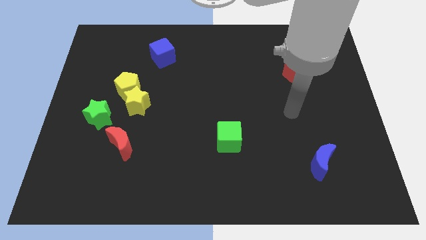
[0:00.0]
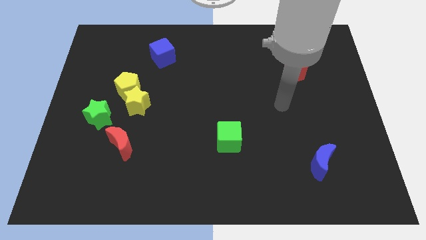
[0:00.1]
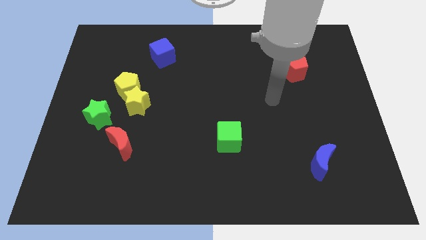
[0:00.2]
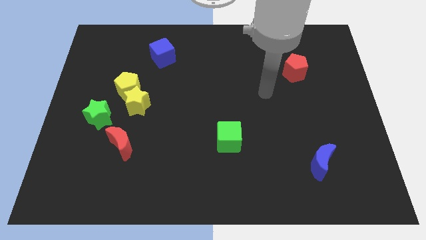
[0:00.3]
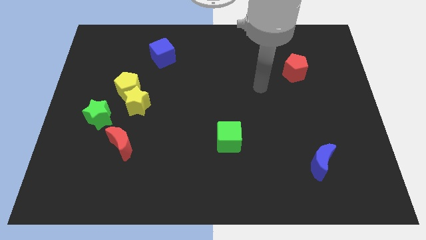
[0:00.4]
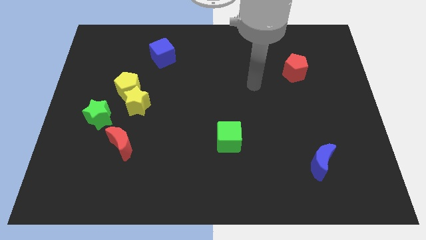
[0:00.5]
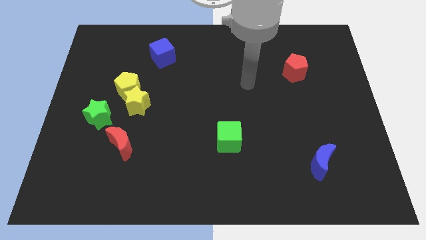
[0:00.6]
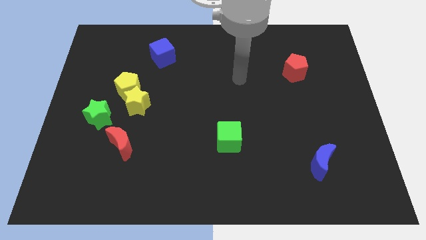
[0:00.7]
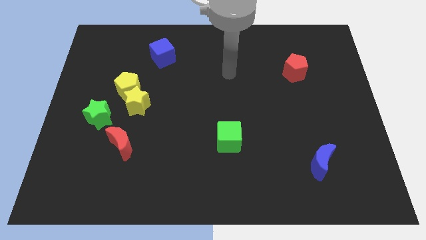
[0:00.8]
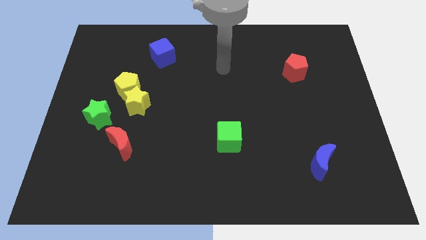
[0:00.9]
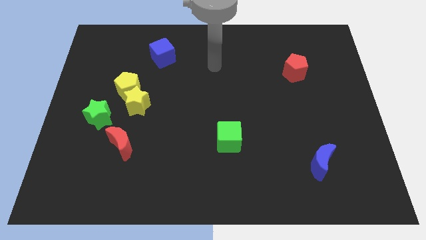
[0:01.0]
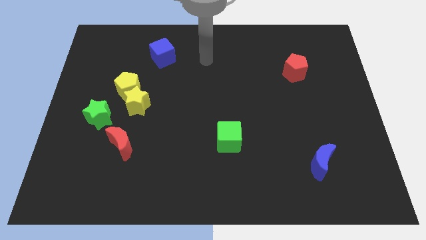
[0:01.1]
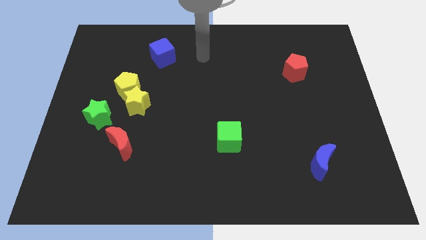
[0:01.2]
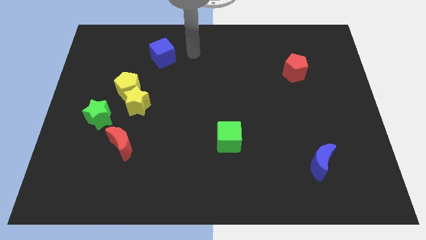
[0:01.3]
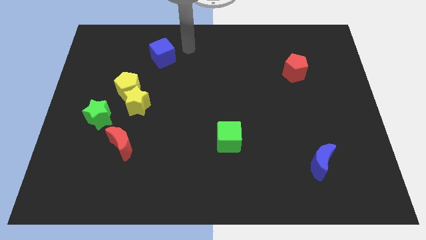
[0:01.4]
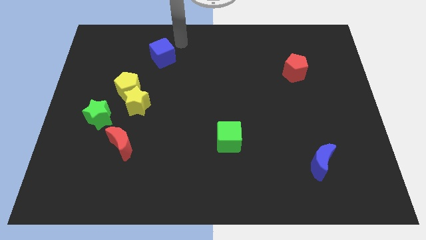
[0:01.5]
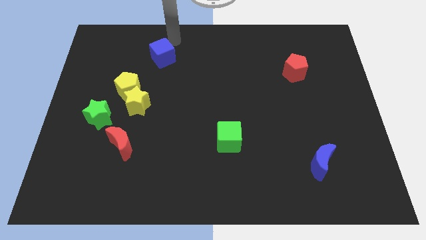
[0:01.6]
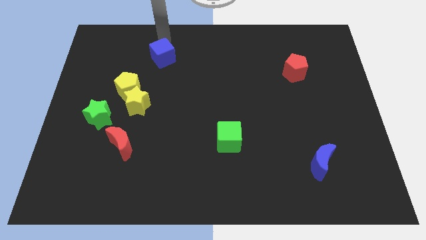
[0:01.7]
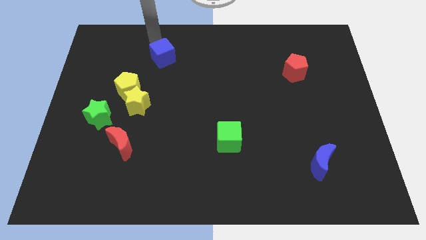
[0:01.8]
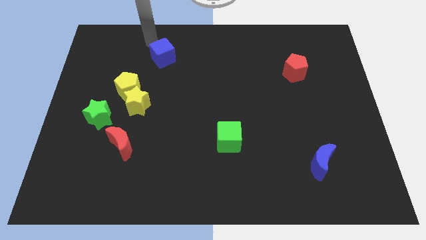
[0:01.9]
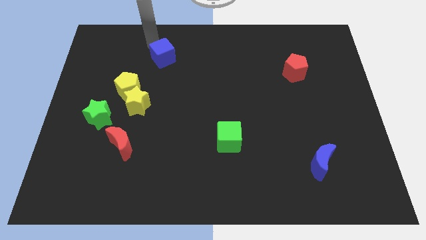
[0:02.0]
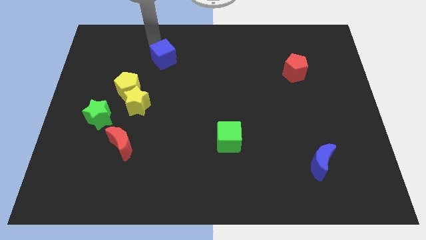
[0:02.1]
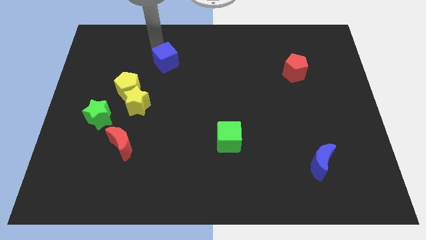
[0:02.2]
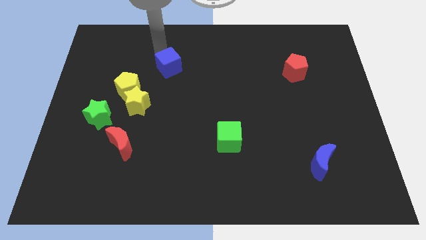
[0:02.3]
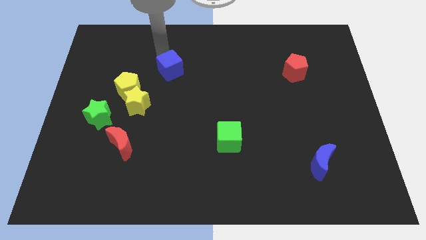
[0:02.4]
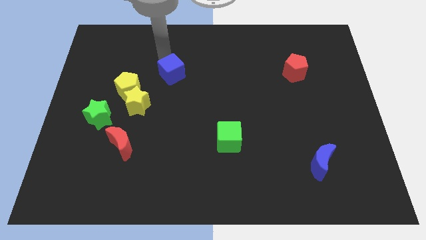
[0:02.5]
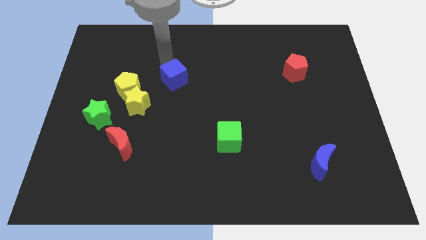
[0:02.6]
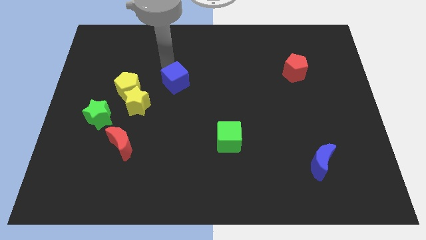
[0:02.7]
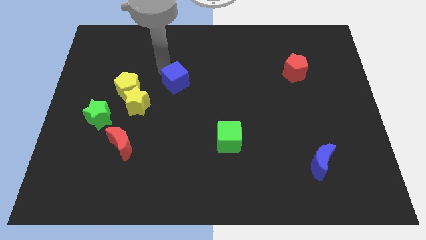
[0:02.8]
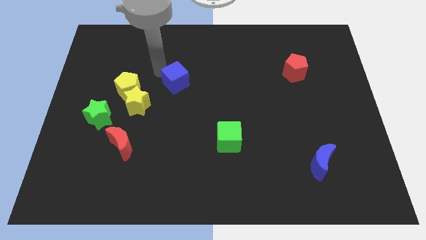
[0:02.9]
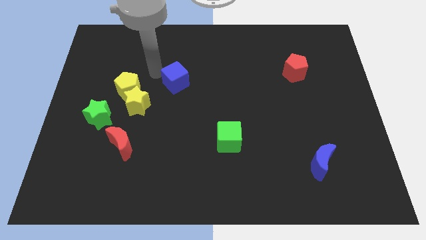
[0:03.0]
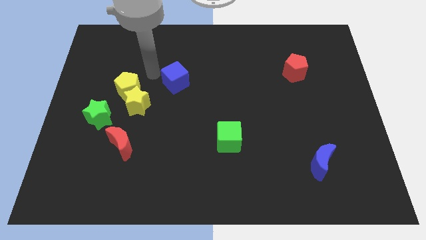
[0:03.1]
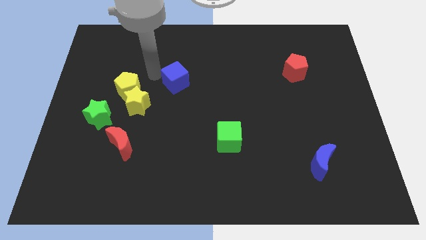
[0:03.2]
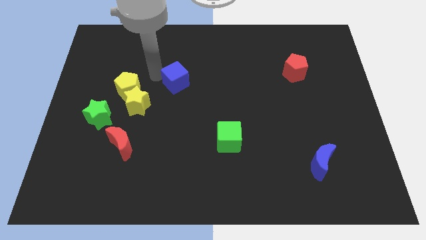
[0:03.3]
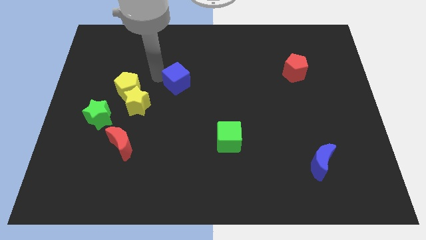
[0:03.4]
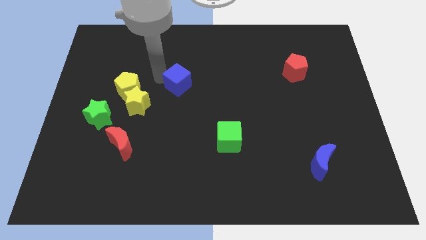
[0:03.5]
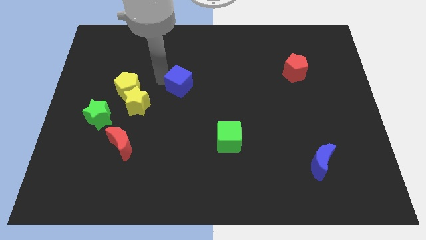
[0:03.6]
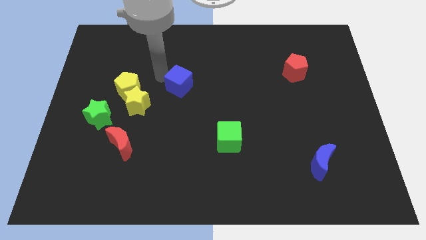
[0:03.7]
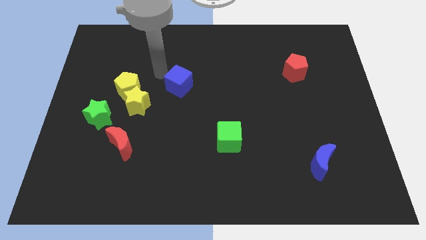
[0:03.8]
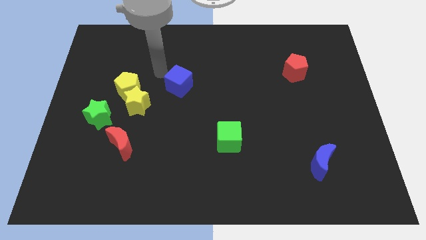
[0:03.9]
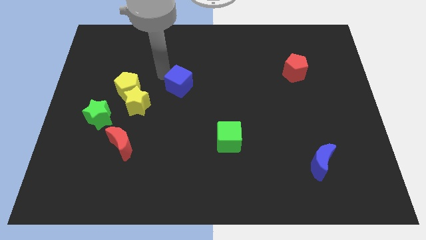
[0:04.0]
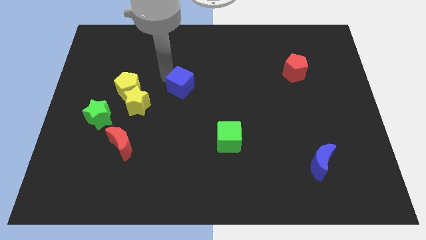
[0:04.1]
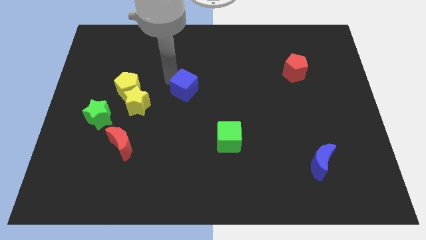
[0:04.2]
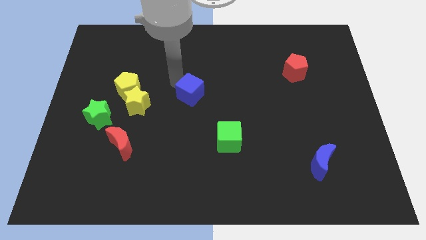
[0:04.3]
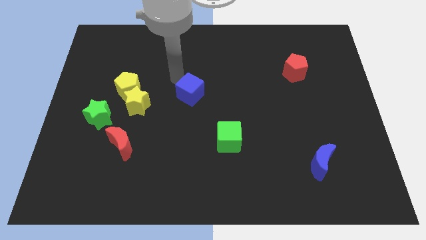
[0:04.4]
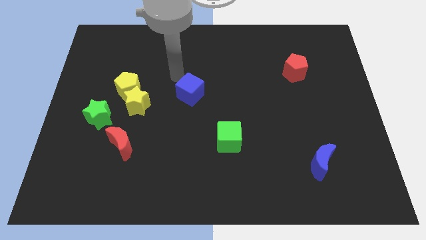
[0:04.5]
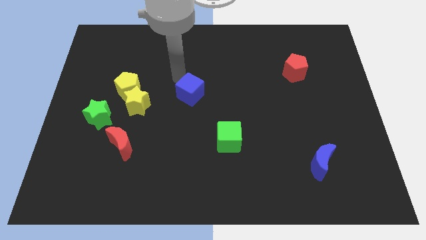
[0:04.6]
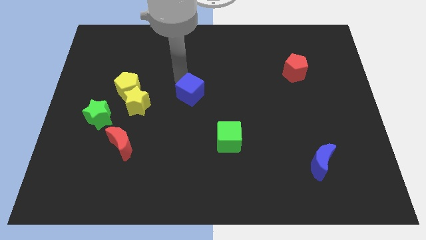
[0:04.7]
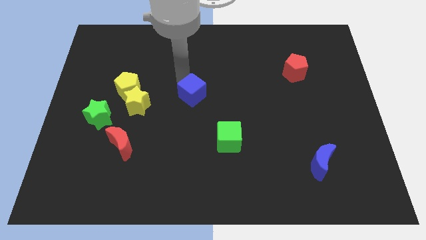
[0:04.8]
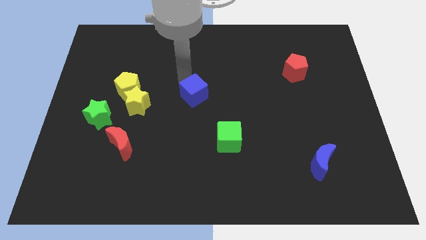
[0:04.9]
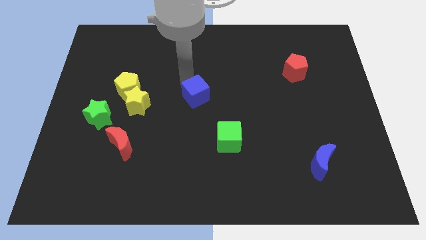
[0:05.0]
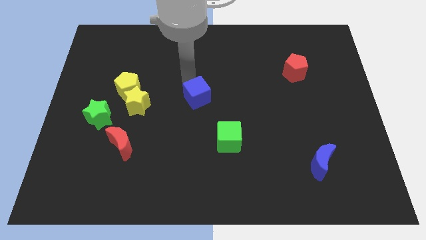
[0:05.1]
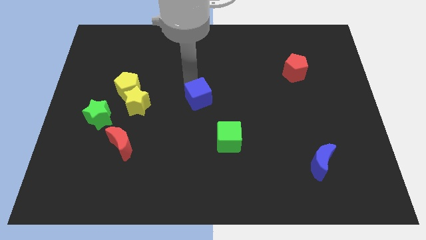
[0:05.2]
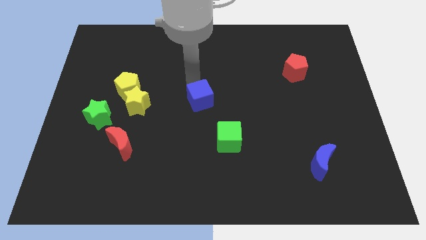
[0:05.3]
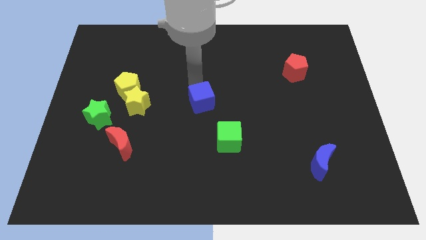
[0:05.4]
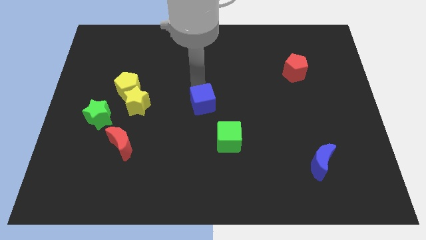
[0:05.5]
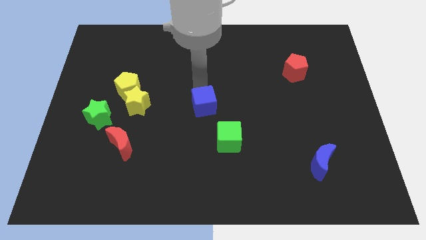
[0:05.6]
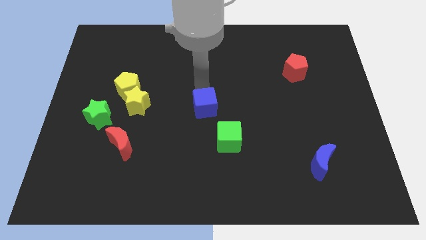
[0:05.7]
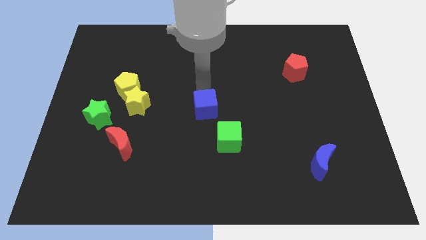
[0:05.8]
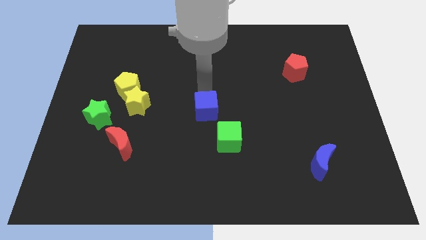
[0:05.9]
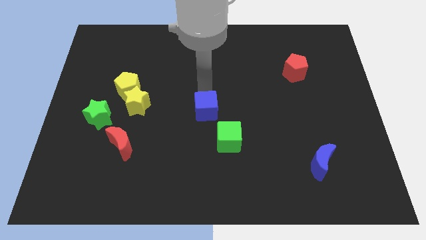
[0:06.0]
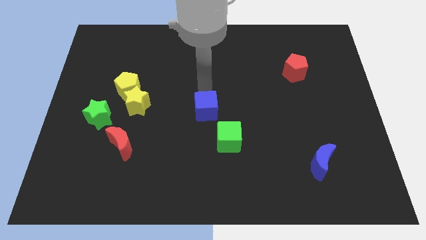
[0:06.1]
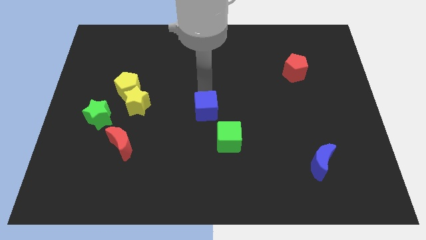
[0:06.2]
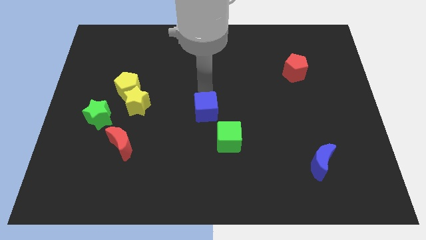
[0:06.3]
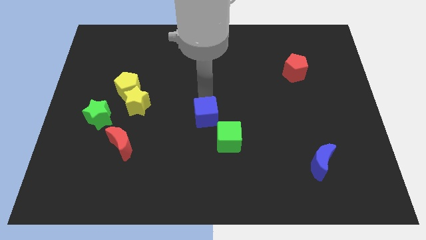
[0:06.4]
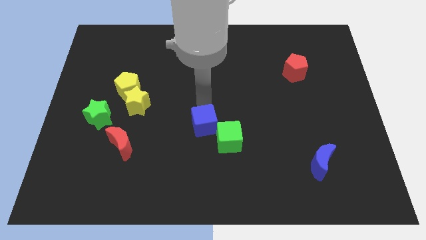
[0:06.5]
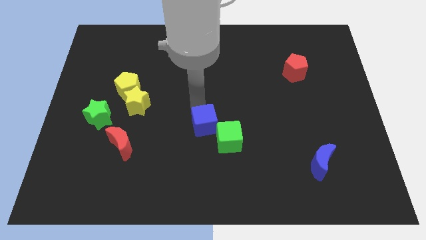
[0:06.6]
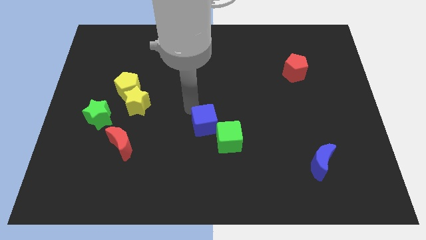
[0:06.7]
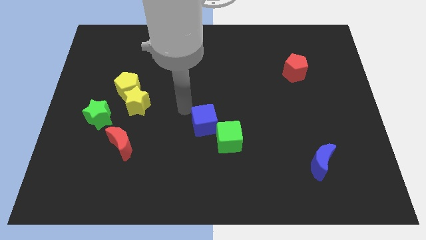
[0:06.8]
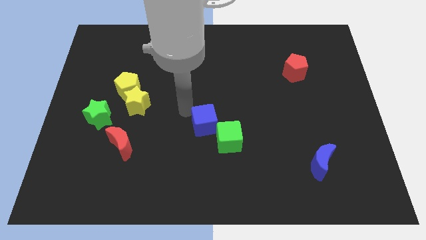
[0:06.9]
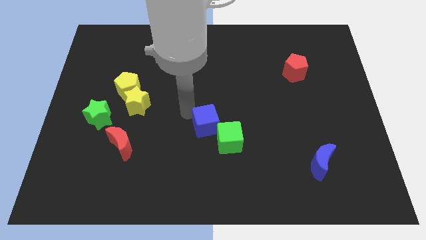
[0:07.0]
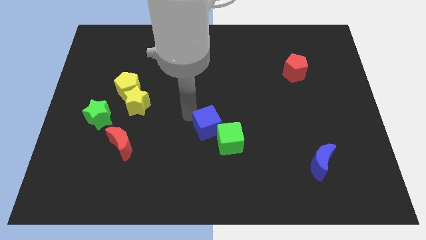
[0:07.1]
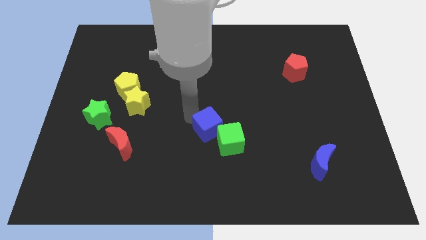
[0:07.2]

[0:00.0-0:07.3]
put the blue cube next to the green cube

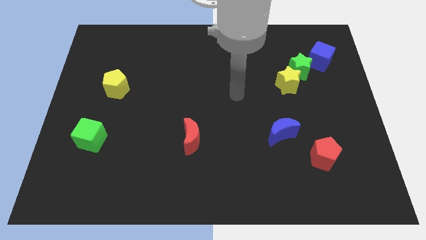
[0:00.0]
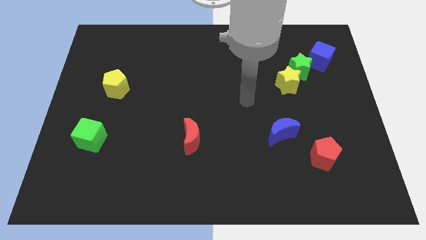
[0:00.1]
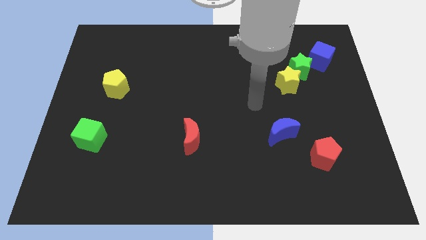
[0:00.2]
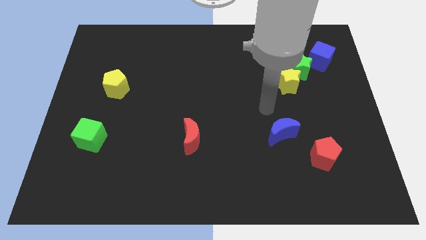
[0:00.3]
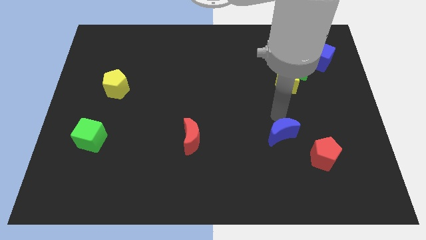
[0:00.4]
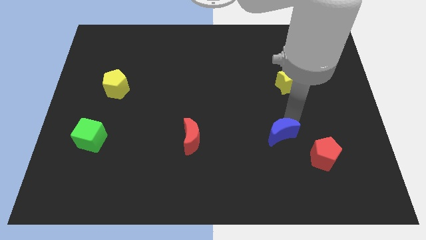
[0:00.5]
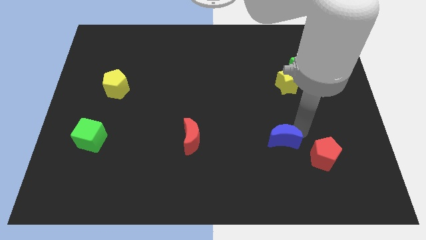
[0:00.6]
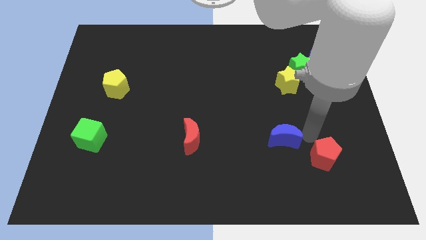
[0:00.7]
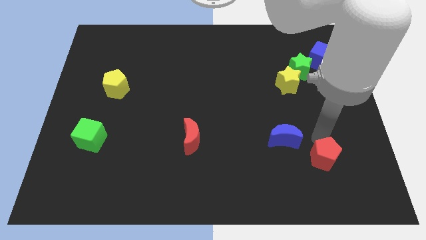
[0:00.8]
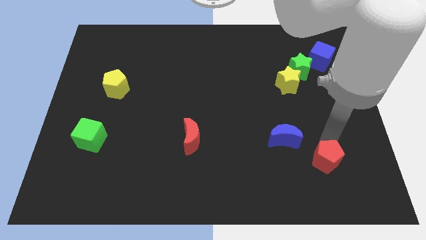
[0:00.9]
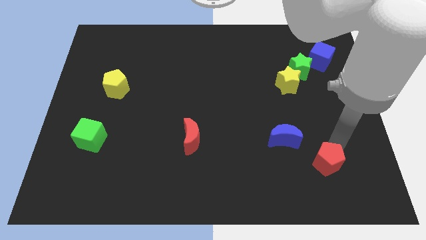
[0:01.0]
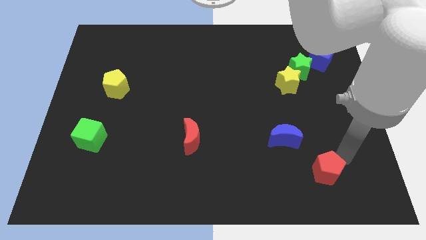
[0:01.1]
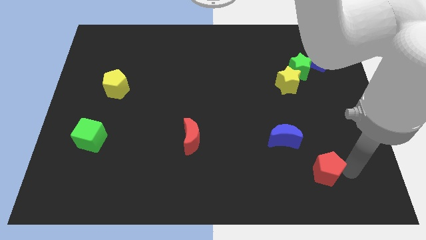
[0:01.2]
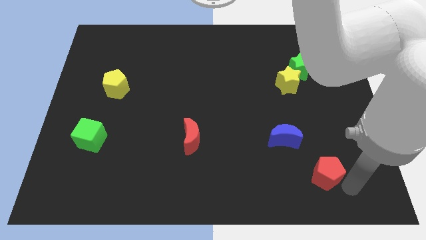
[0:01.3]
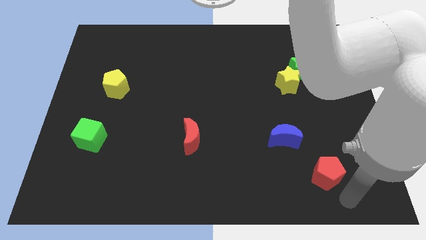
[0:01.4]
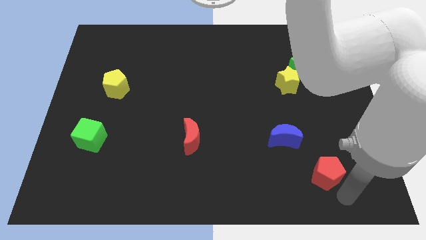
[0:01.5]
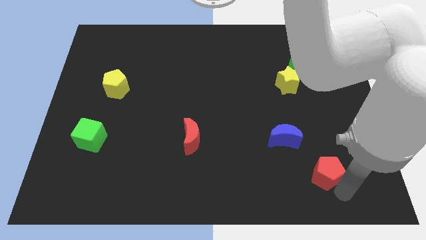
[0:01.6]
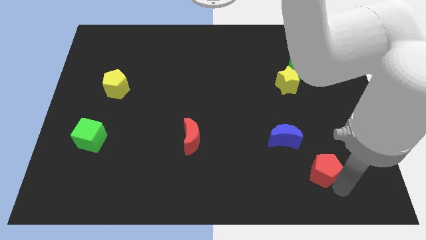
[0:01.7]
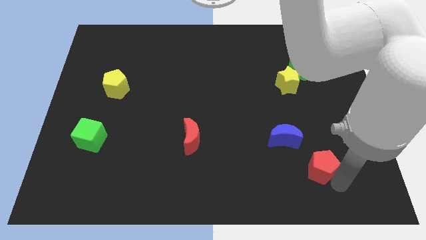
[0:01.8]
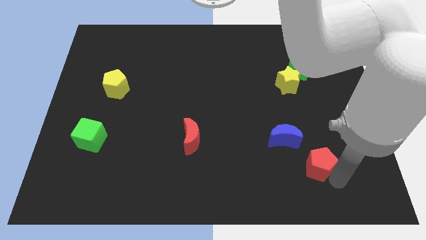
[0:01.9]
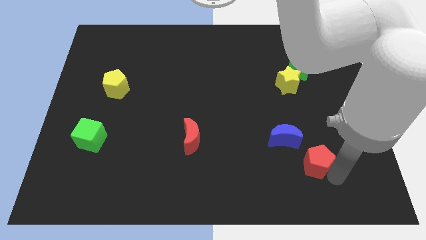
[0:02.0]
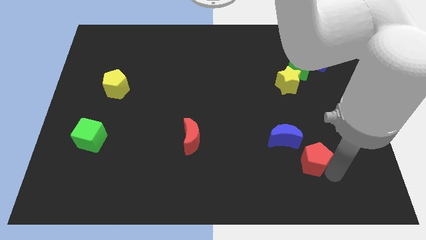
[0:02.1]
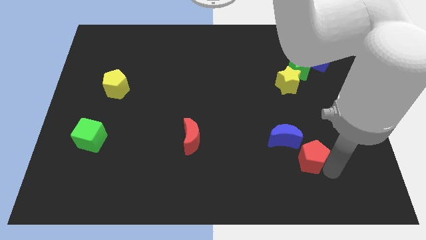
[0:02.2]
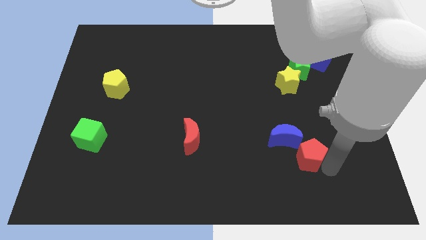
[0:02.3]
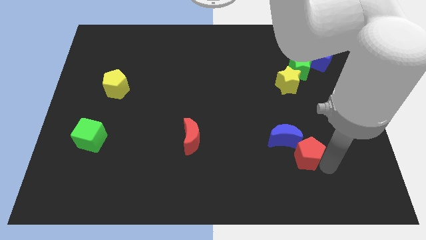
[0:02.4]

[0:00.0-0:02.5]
slide the red pentagon to the blue moon
